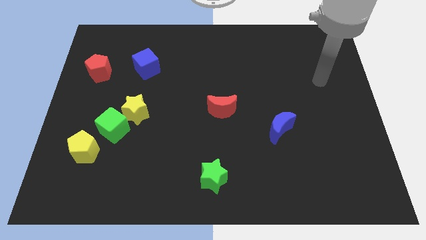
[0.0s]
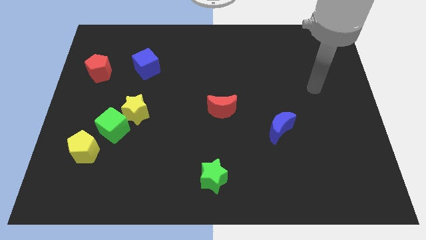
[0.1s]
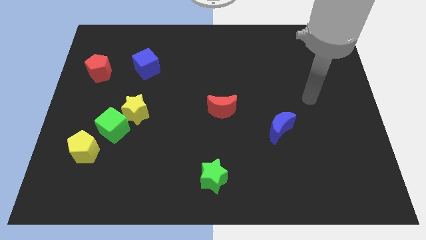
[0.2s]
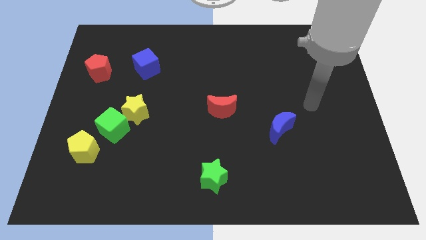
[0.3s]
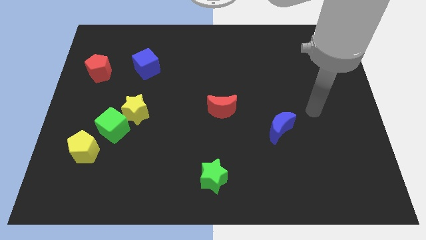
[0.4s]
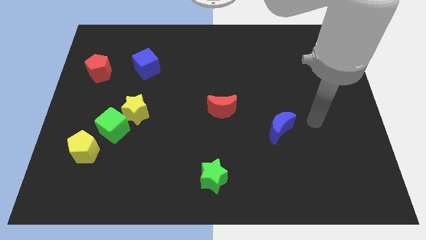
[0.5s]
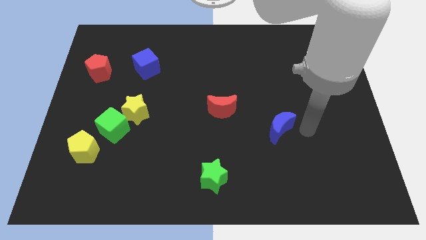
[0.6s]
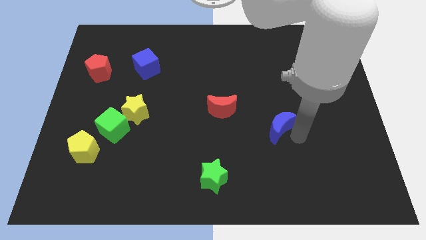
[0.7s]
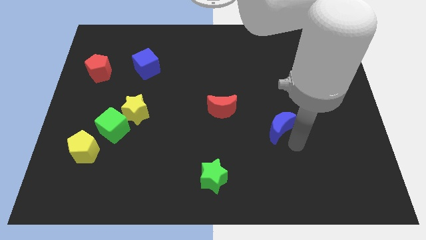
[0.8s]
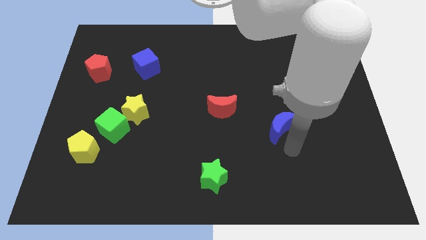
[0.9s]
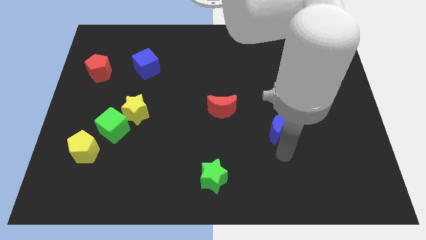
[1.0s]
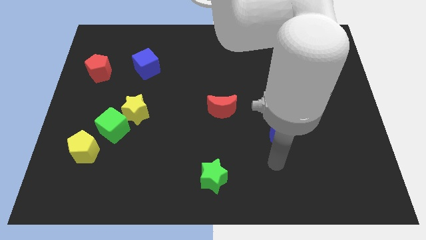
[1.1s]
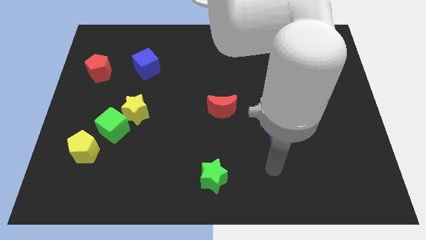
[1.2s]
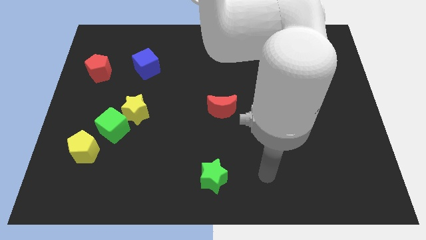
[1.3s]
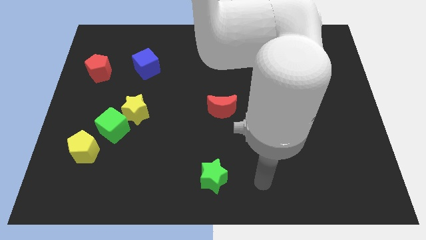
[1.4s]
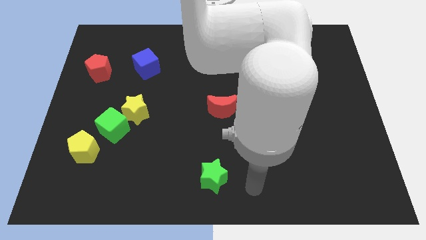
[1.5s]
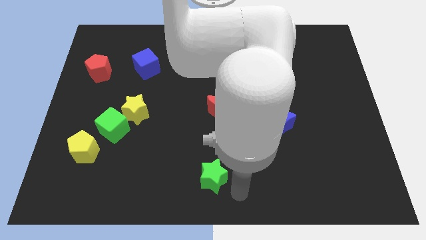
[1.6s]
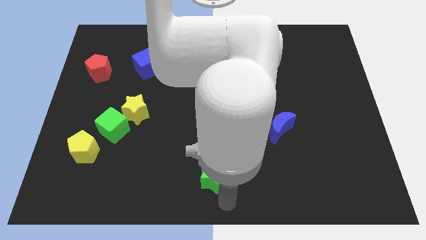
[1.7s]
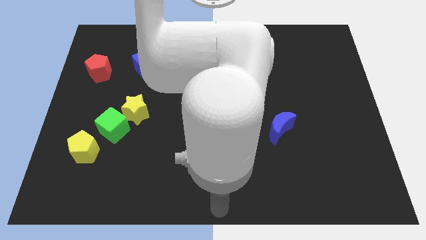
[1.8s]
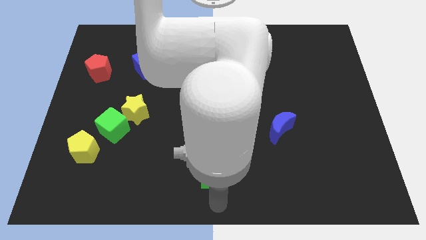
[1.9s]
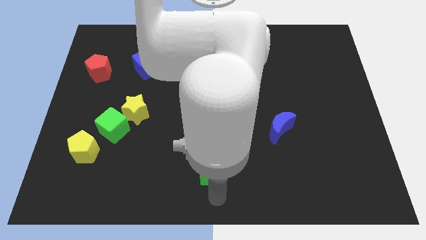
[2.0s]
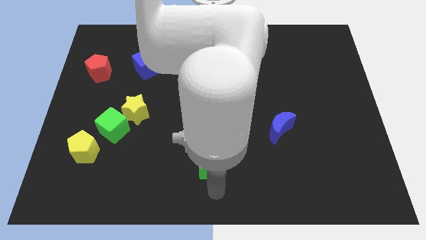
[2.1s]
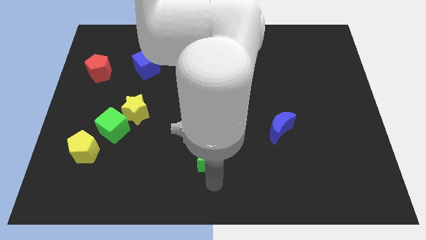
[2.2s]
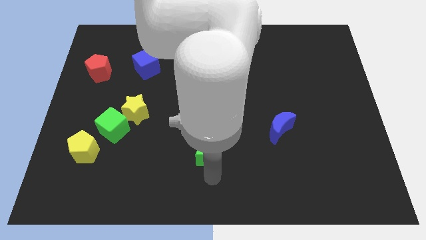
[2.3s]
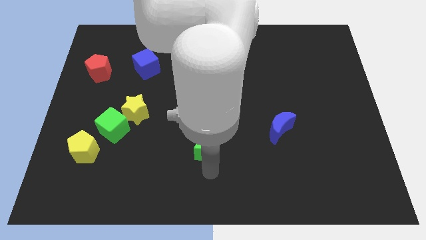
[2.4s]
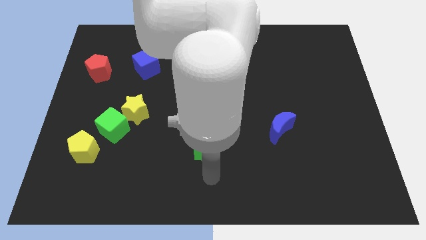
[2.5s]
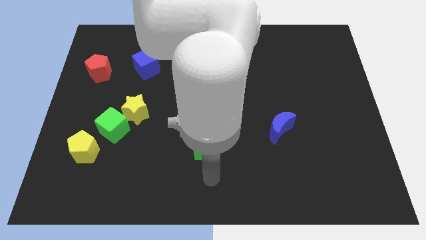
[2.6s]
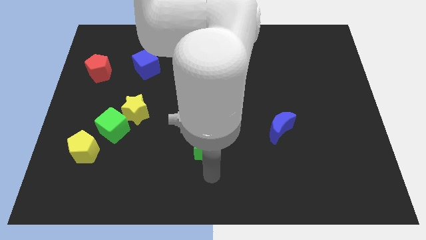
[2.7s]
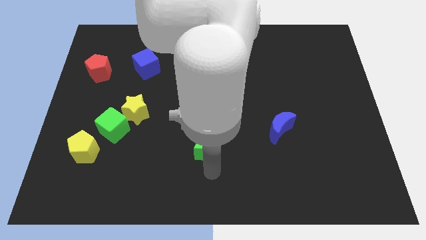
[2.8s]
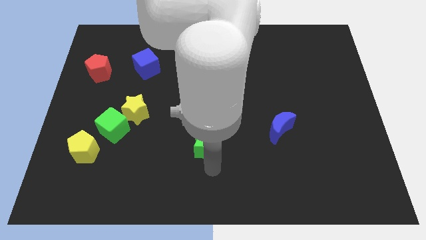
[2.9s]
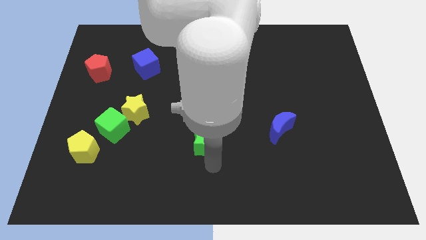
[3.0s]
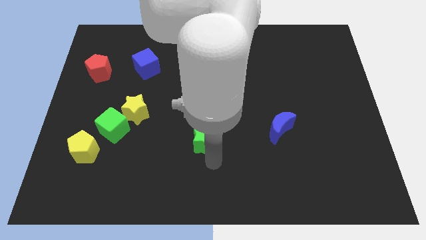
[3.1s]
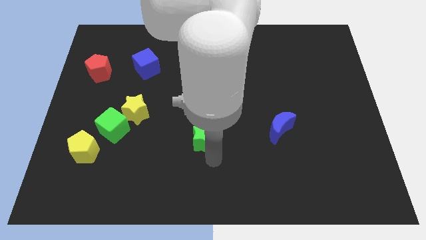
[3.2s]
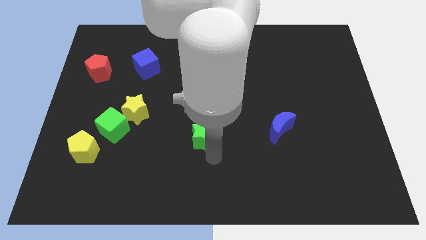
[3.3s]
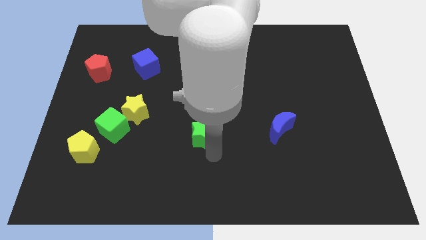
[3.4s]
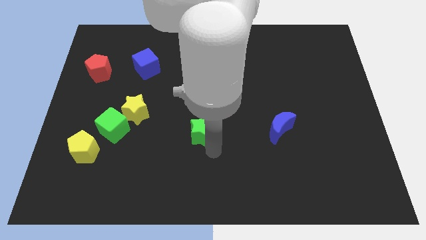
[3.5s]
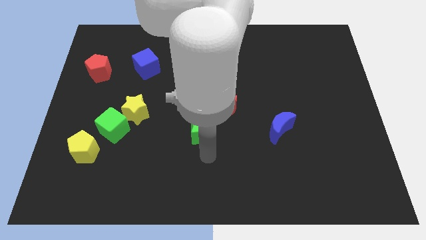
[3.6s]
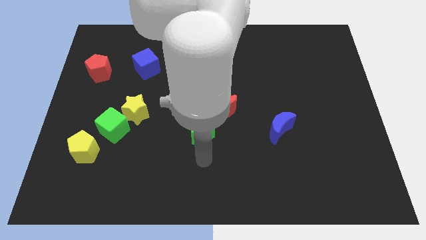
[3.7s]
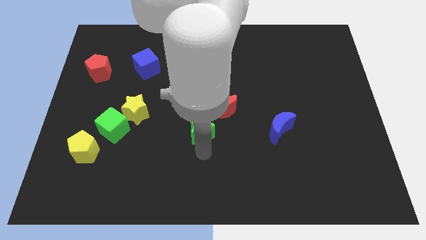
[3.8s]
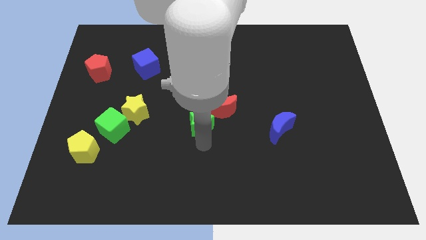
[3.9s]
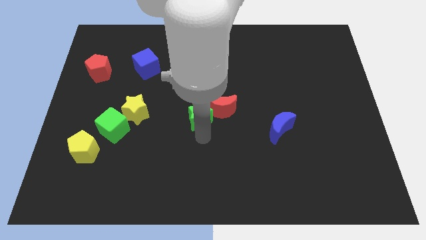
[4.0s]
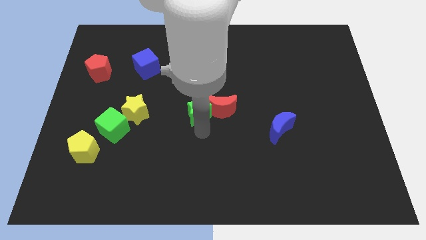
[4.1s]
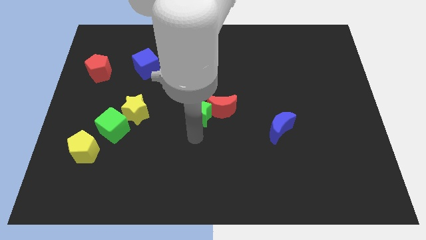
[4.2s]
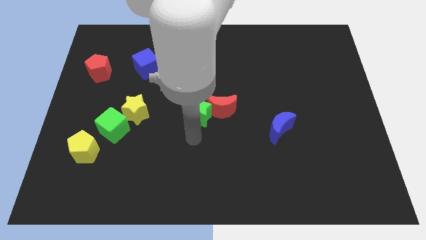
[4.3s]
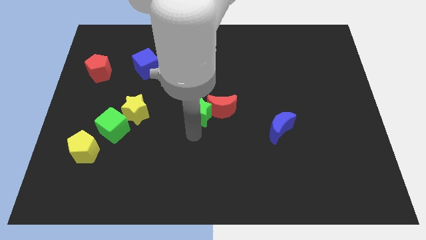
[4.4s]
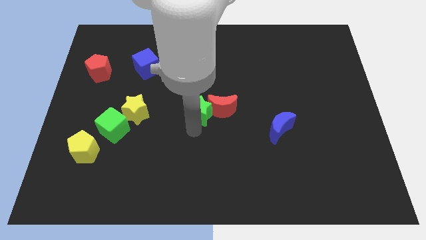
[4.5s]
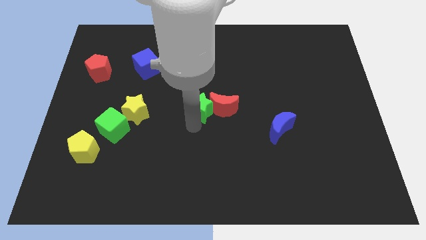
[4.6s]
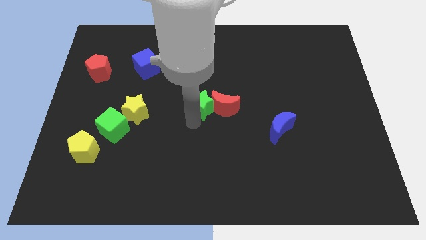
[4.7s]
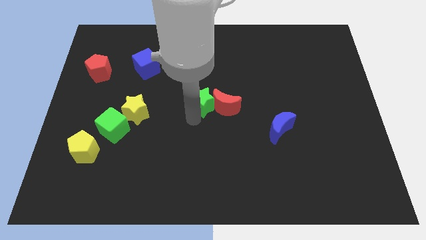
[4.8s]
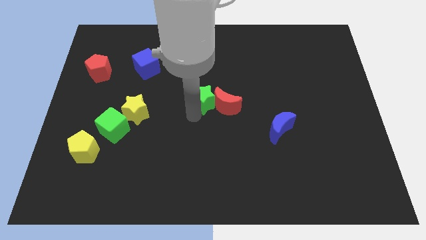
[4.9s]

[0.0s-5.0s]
slide the green star up

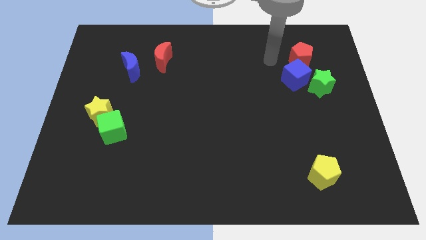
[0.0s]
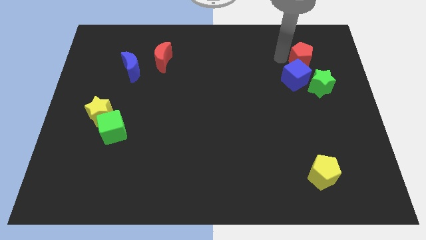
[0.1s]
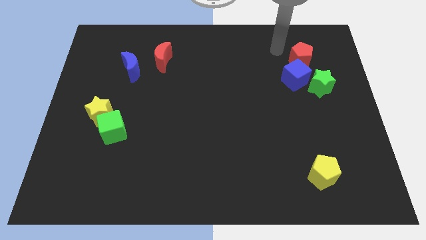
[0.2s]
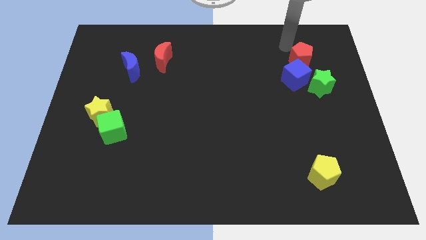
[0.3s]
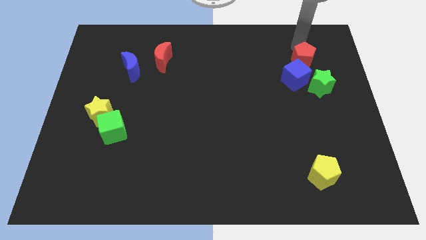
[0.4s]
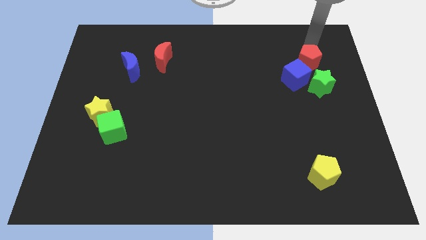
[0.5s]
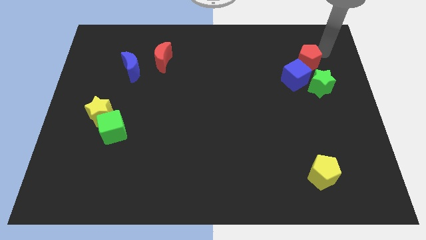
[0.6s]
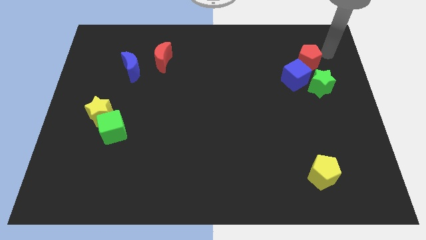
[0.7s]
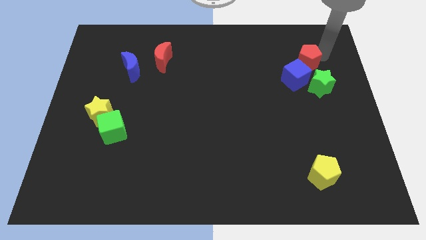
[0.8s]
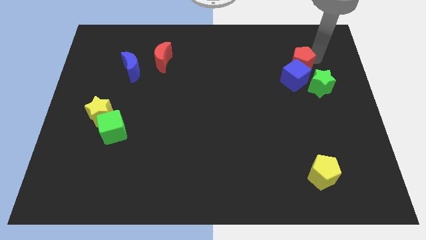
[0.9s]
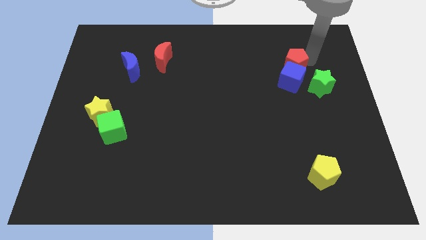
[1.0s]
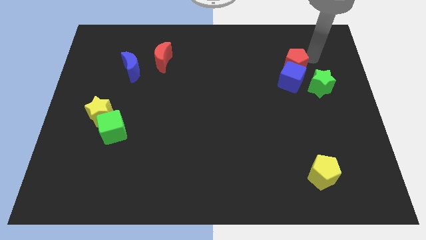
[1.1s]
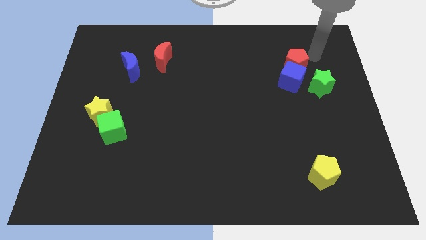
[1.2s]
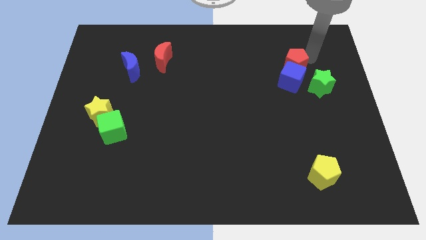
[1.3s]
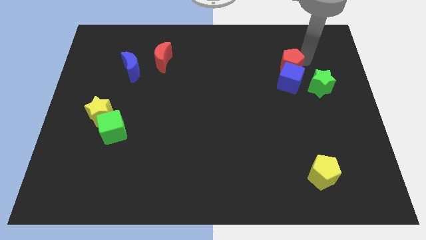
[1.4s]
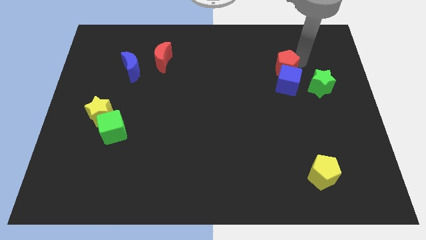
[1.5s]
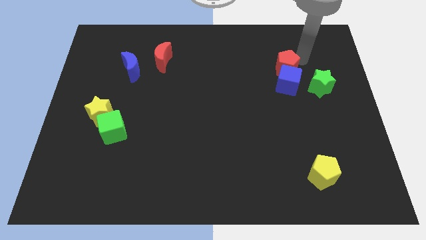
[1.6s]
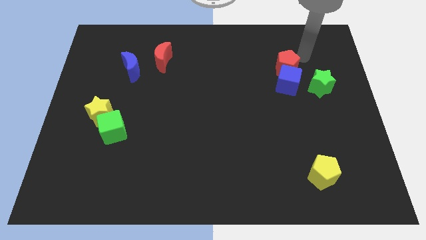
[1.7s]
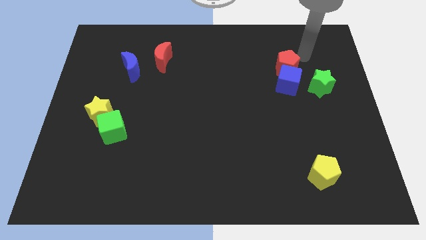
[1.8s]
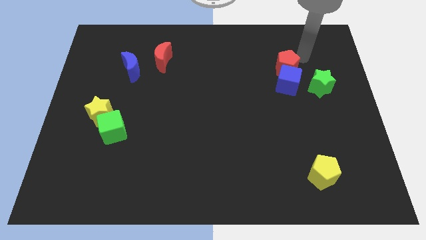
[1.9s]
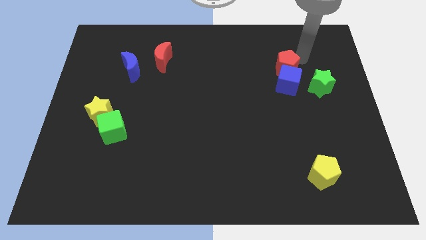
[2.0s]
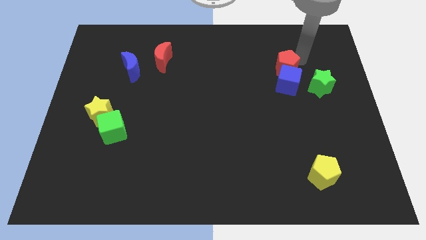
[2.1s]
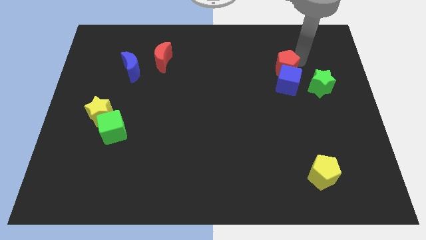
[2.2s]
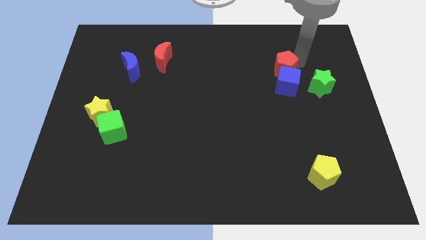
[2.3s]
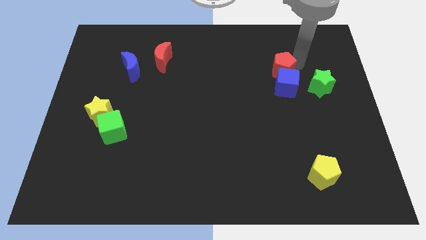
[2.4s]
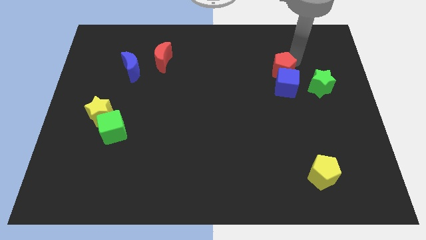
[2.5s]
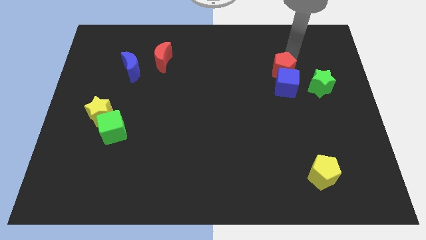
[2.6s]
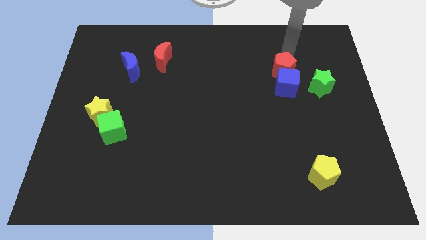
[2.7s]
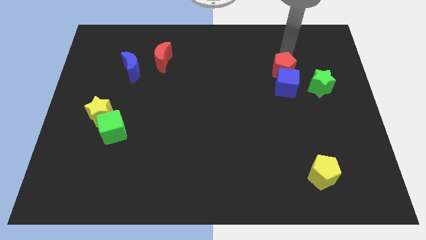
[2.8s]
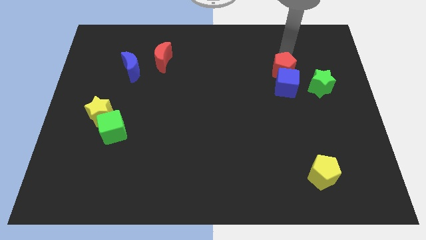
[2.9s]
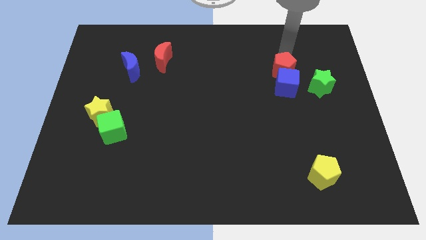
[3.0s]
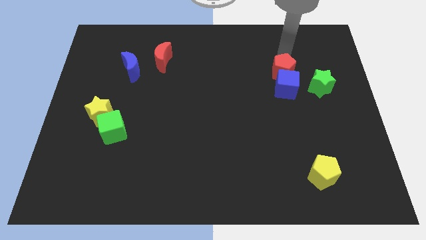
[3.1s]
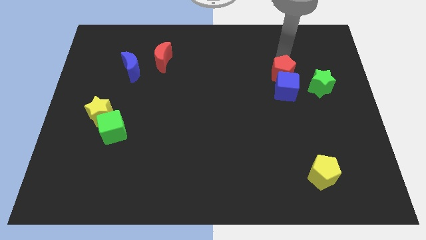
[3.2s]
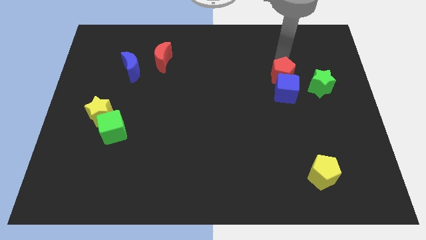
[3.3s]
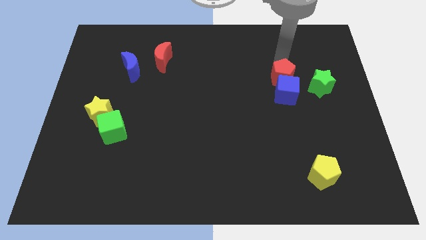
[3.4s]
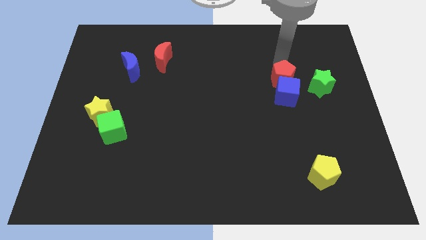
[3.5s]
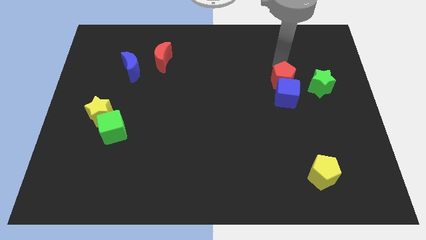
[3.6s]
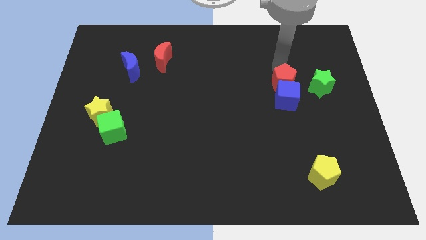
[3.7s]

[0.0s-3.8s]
slide the red pentagon a bit down
